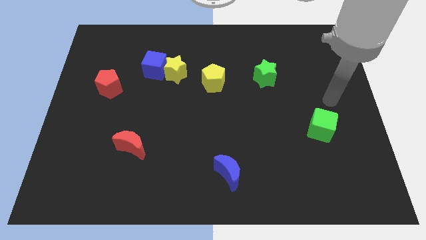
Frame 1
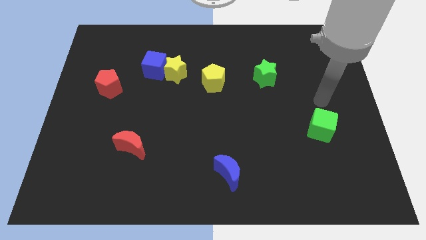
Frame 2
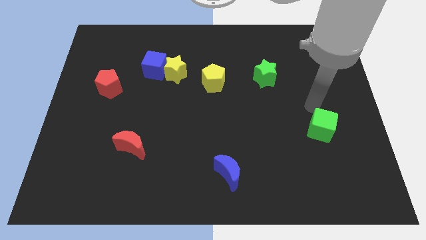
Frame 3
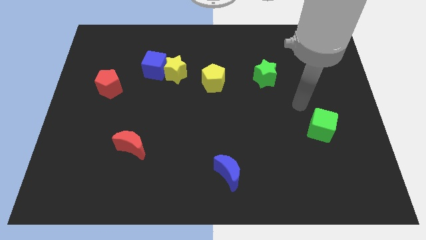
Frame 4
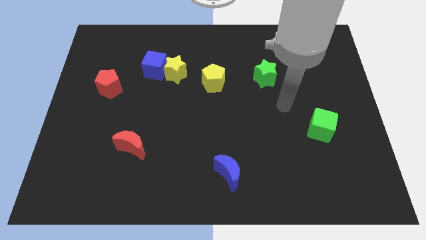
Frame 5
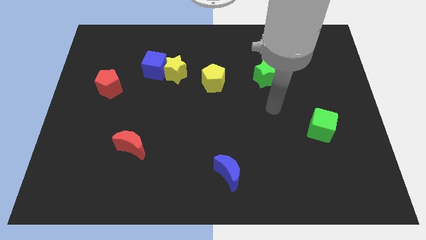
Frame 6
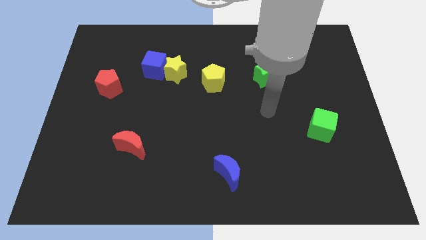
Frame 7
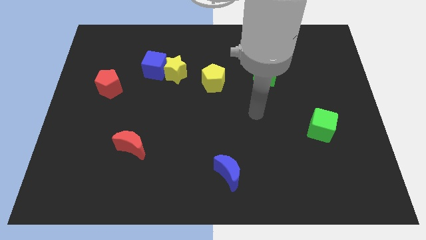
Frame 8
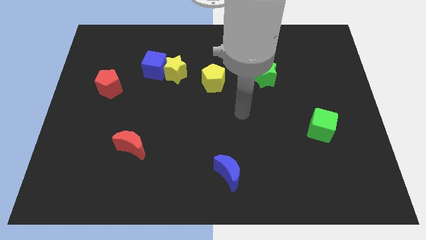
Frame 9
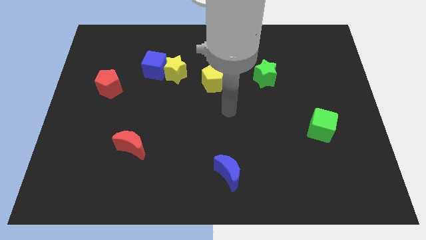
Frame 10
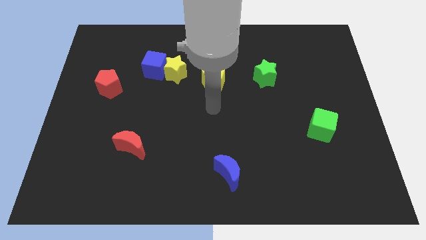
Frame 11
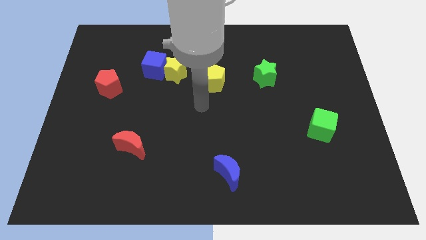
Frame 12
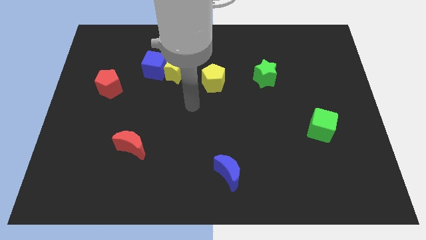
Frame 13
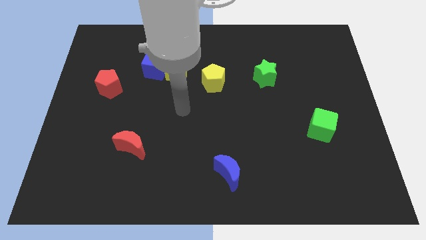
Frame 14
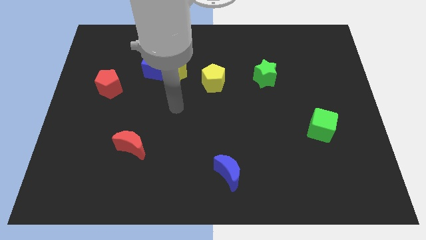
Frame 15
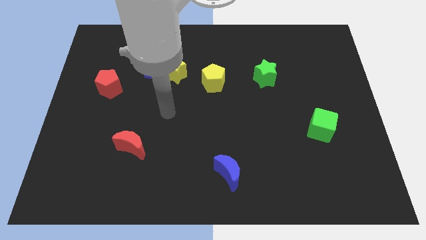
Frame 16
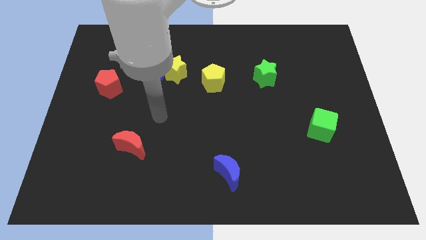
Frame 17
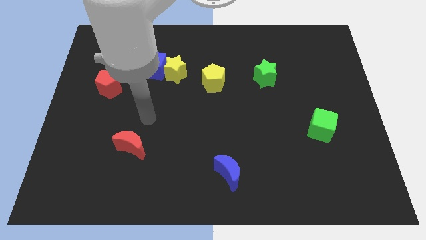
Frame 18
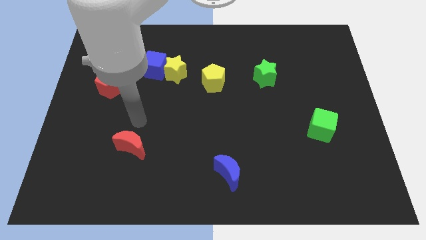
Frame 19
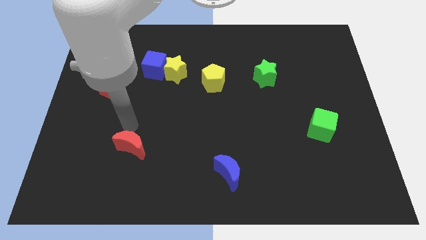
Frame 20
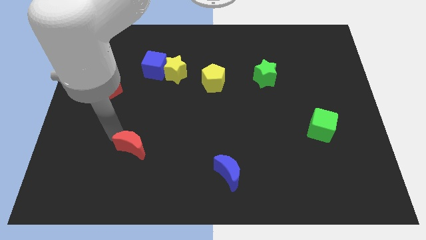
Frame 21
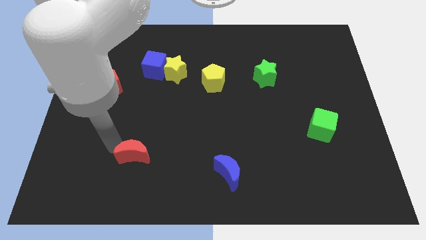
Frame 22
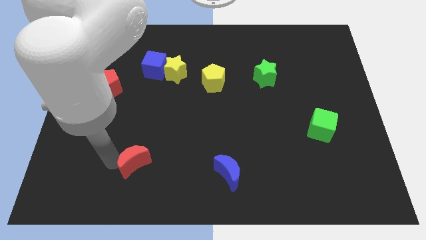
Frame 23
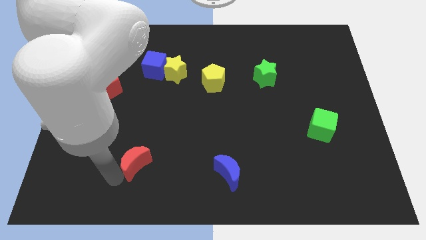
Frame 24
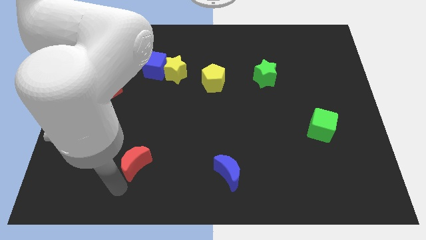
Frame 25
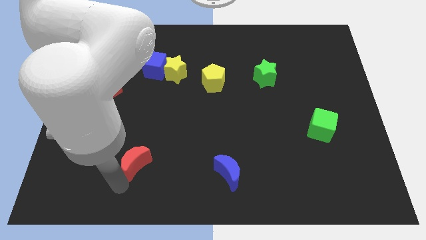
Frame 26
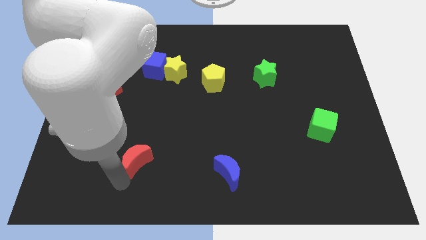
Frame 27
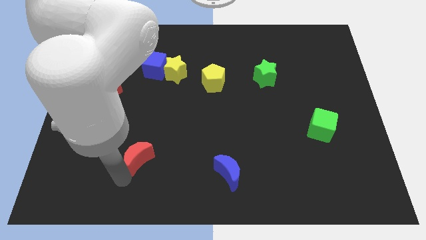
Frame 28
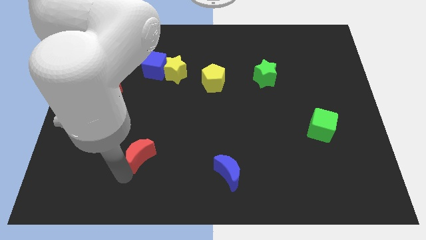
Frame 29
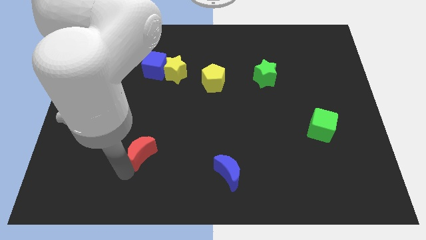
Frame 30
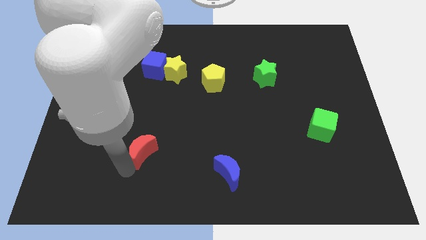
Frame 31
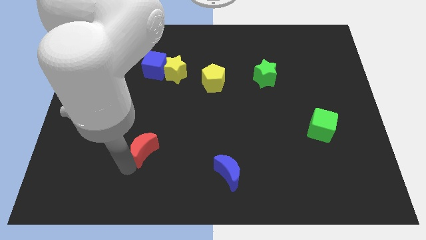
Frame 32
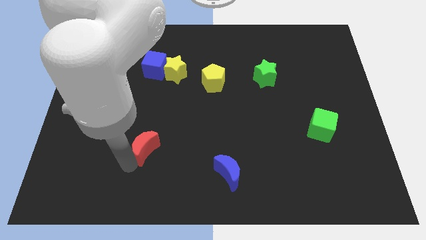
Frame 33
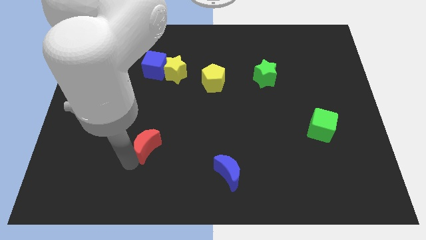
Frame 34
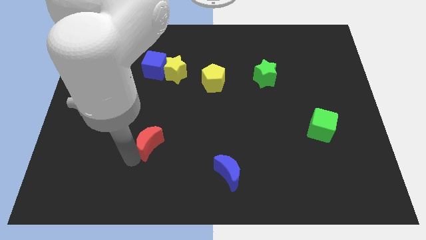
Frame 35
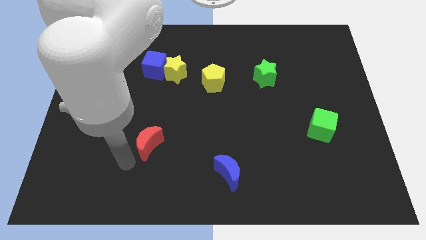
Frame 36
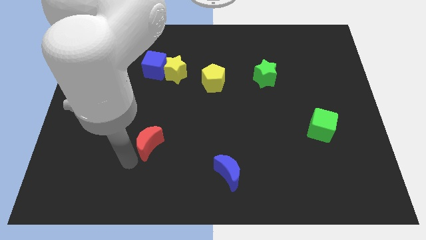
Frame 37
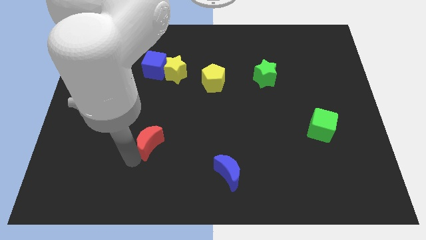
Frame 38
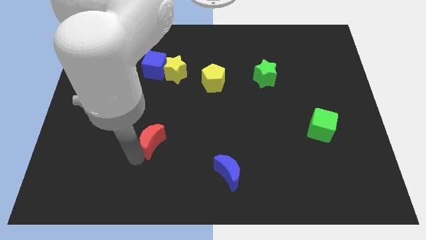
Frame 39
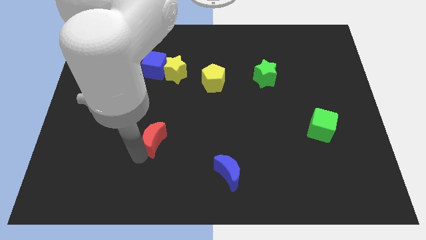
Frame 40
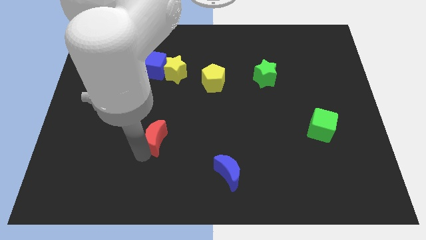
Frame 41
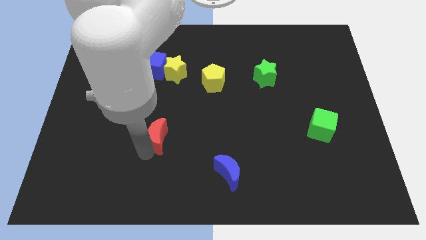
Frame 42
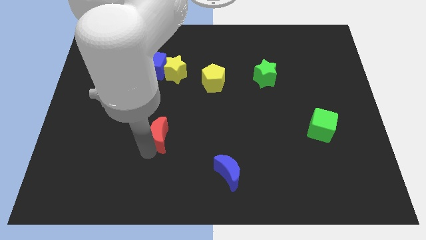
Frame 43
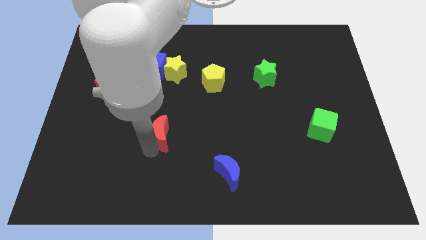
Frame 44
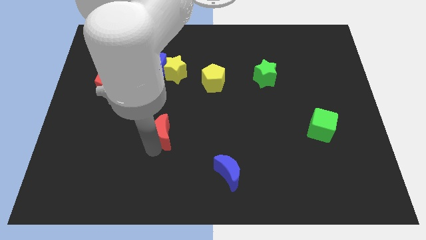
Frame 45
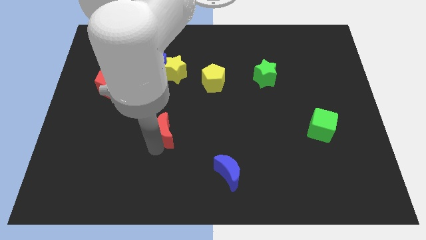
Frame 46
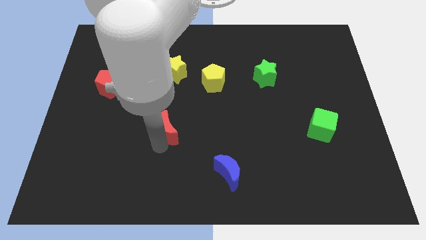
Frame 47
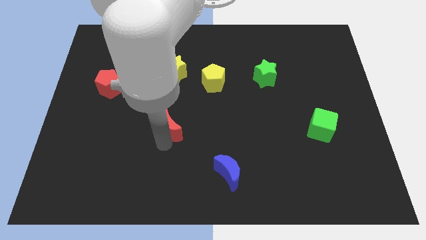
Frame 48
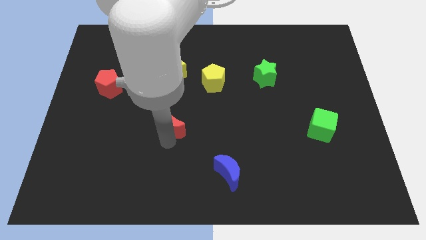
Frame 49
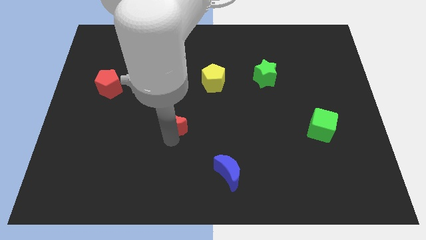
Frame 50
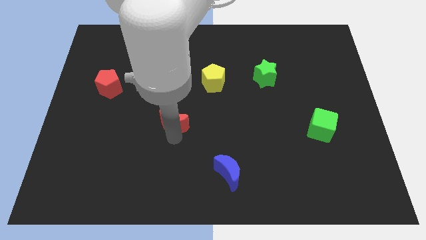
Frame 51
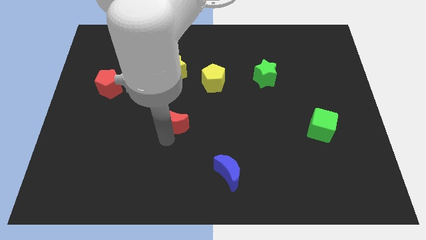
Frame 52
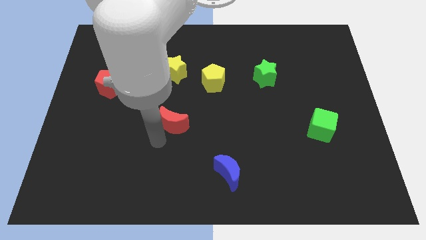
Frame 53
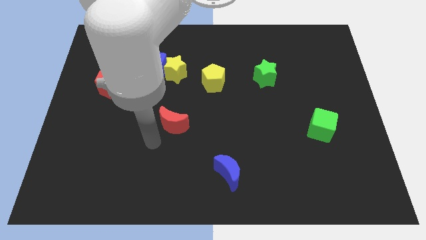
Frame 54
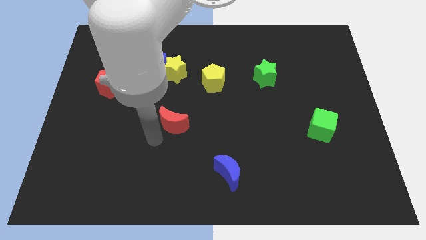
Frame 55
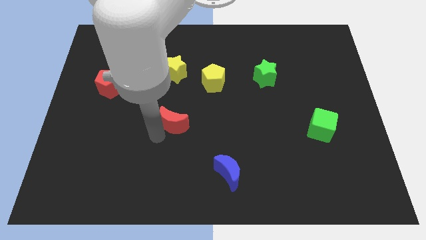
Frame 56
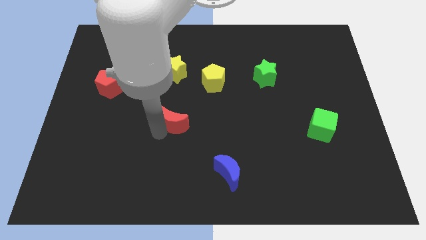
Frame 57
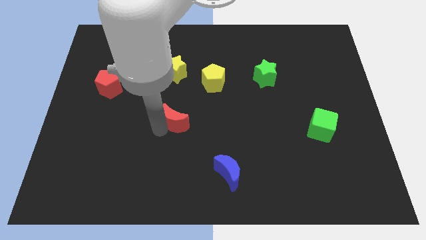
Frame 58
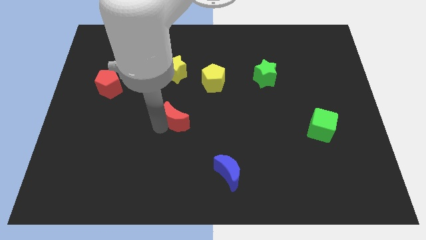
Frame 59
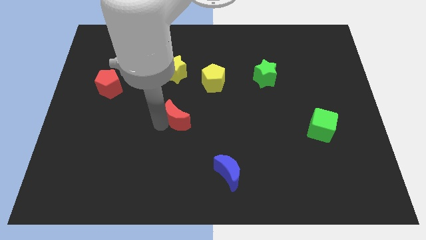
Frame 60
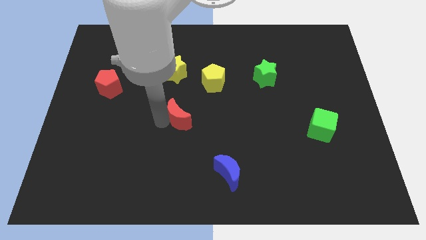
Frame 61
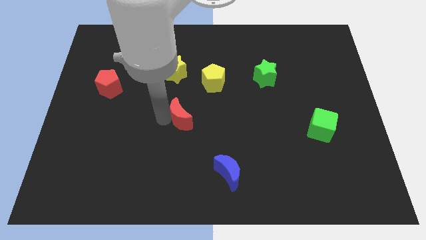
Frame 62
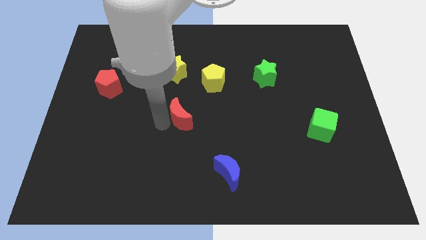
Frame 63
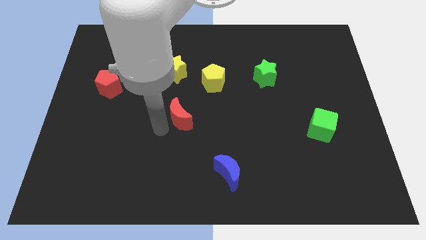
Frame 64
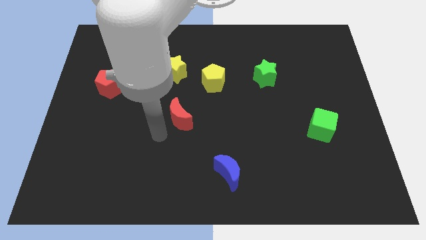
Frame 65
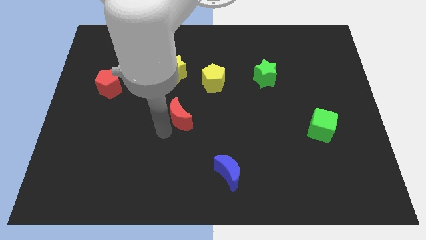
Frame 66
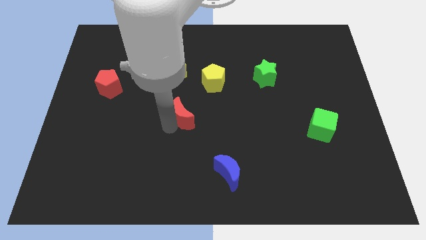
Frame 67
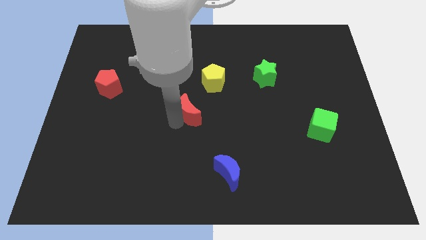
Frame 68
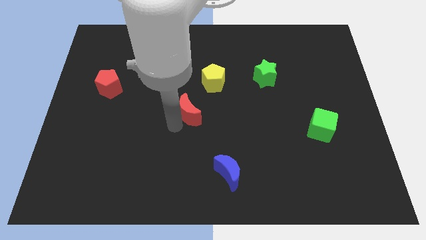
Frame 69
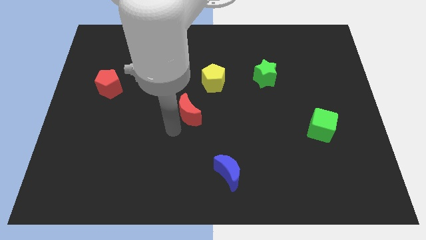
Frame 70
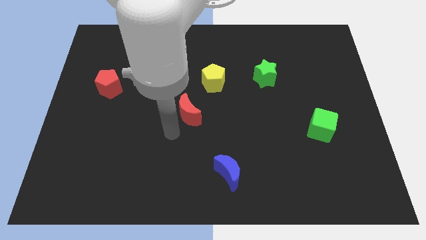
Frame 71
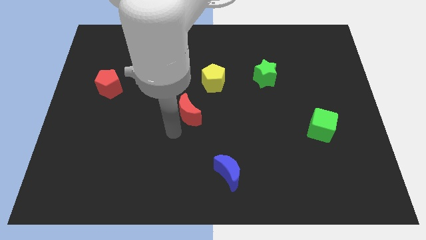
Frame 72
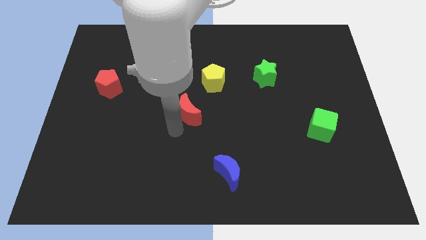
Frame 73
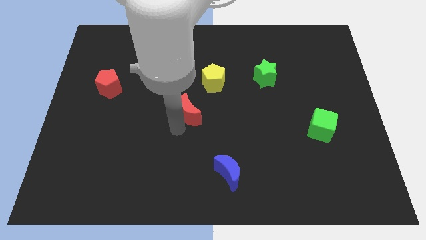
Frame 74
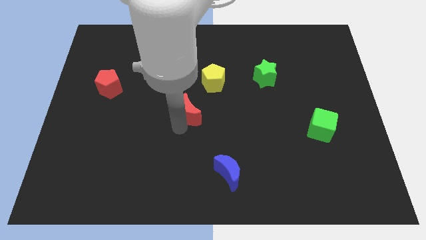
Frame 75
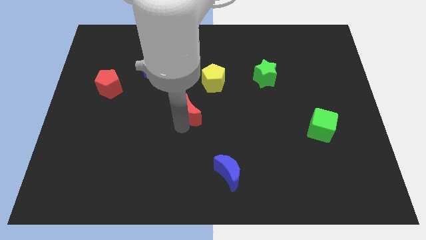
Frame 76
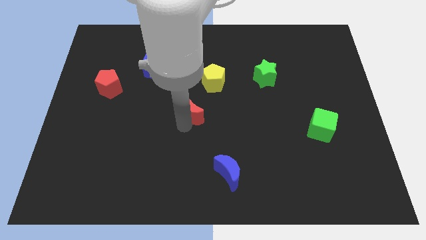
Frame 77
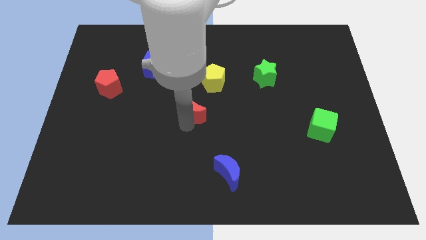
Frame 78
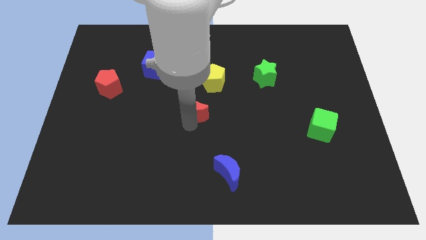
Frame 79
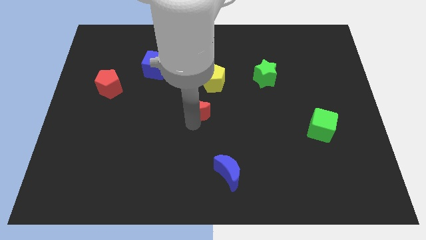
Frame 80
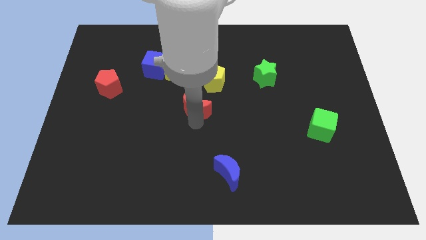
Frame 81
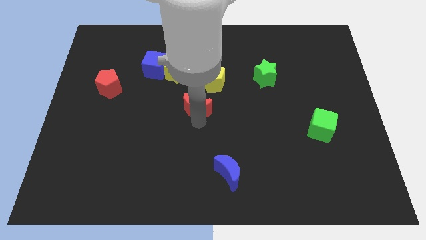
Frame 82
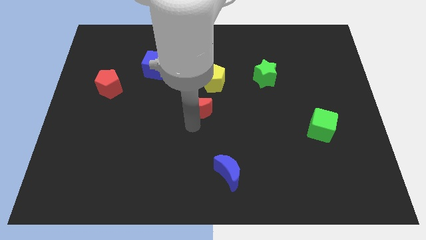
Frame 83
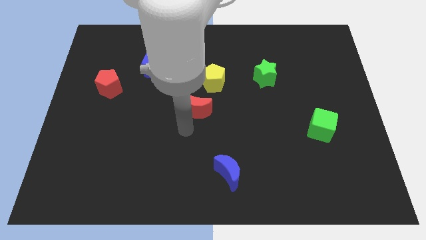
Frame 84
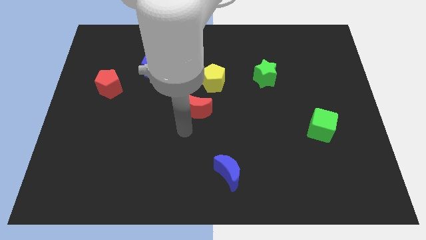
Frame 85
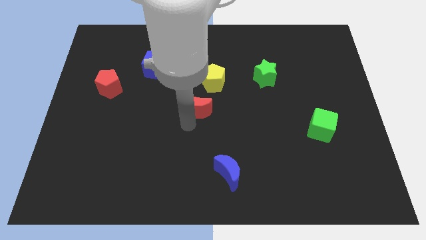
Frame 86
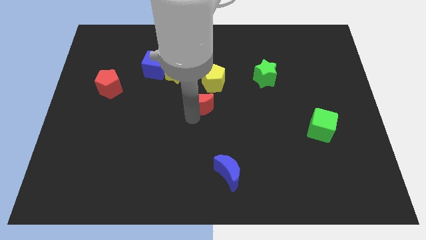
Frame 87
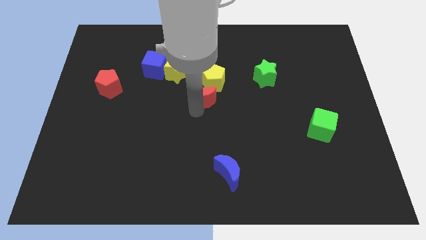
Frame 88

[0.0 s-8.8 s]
move the red moon towards the yellow pentagon
